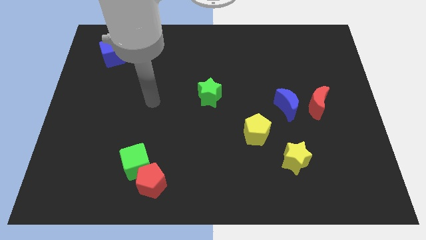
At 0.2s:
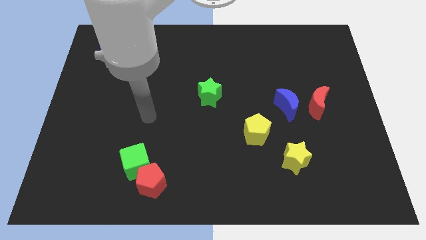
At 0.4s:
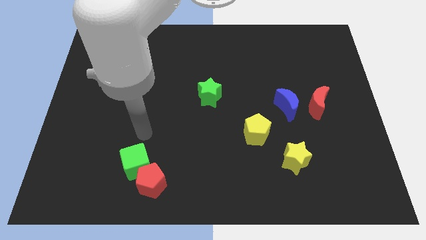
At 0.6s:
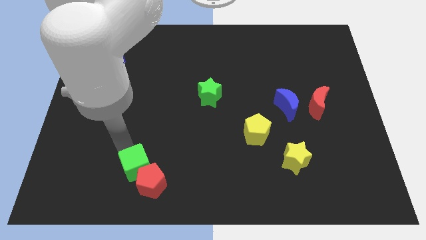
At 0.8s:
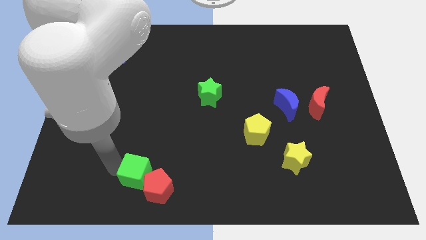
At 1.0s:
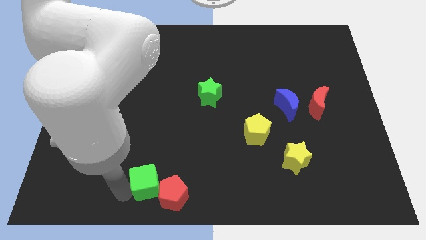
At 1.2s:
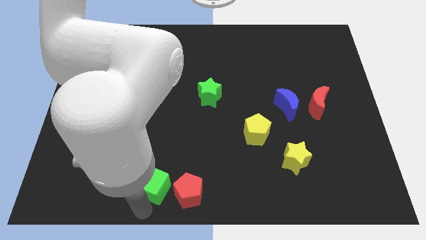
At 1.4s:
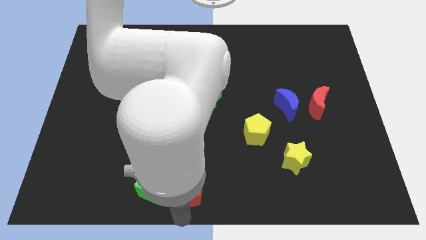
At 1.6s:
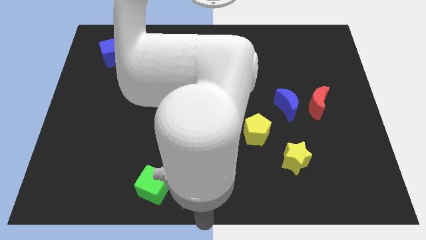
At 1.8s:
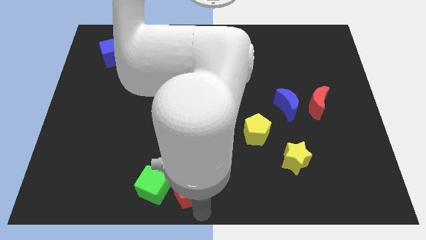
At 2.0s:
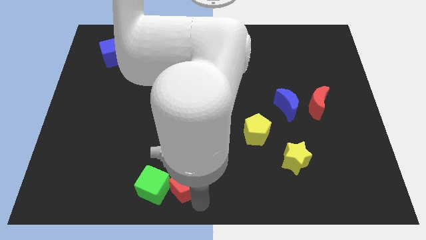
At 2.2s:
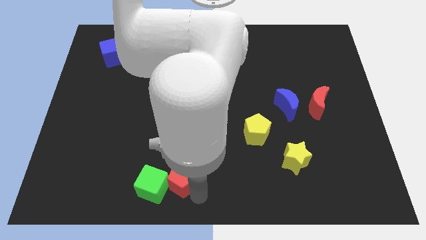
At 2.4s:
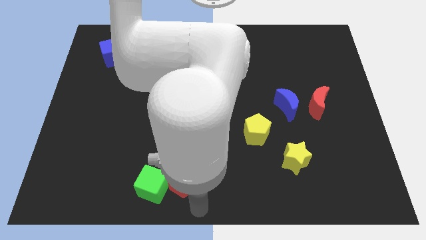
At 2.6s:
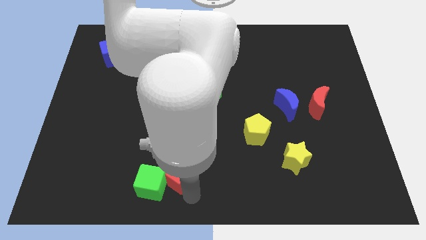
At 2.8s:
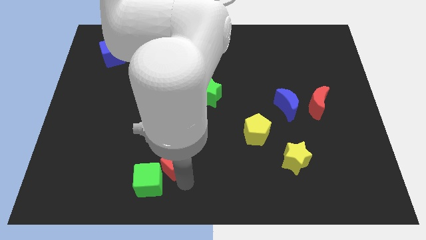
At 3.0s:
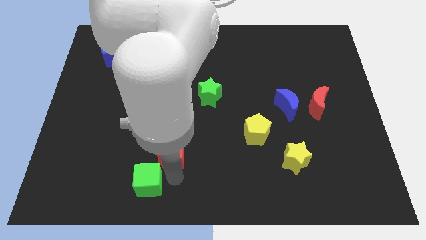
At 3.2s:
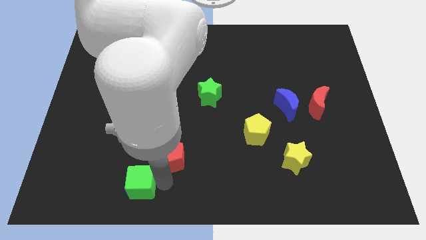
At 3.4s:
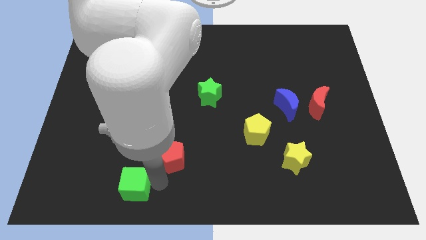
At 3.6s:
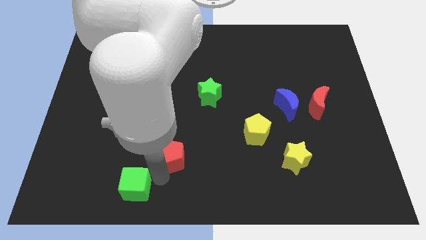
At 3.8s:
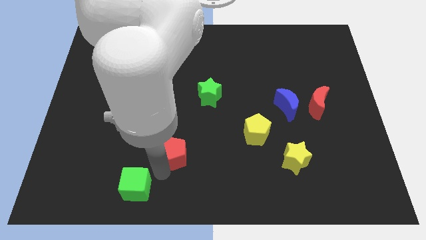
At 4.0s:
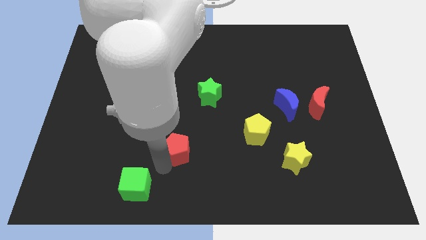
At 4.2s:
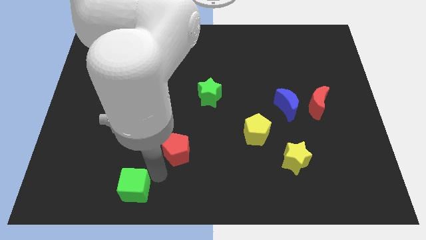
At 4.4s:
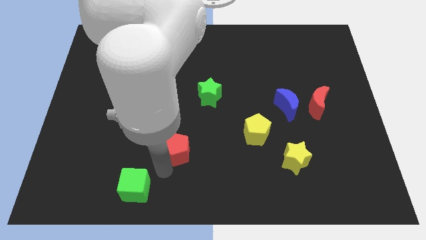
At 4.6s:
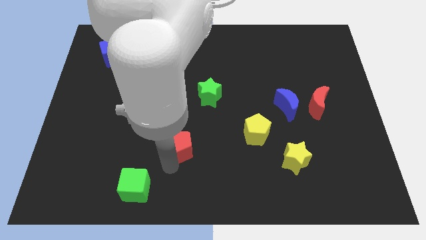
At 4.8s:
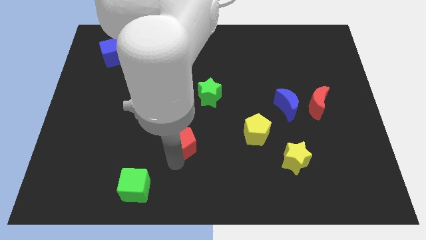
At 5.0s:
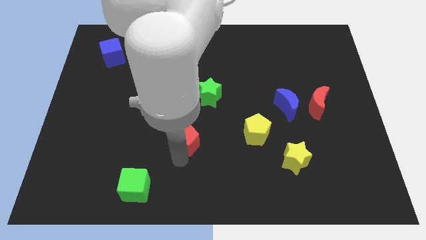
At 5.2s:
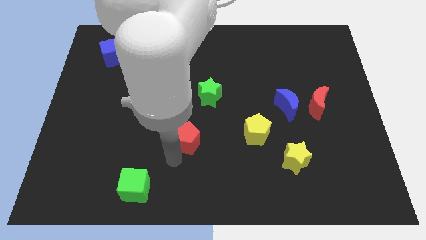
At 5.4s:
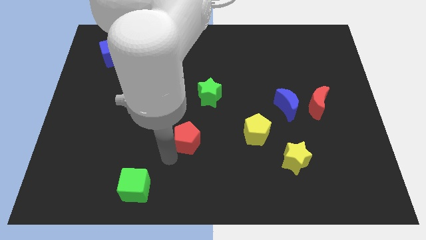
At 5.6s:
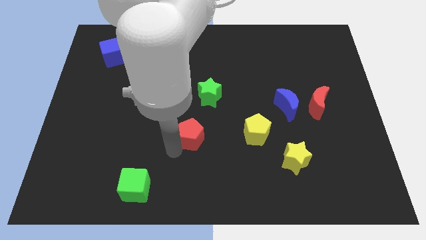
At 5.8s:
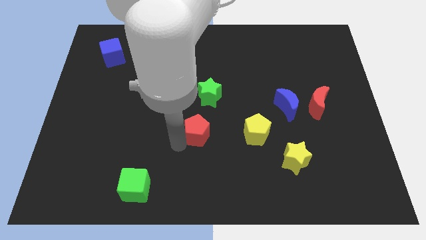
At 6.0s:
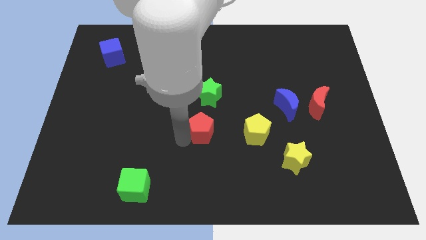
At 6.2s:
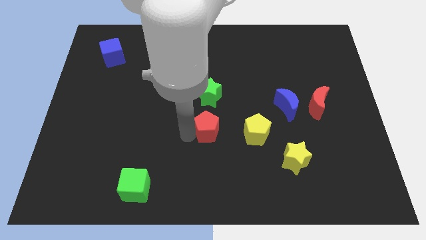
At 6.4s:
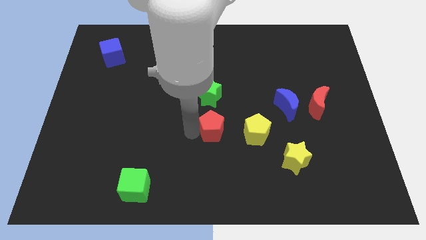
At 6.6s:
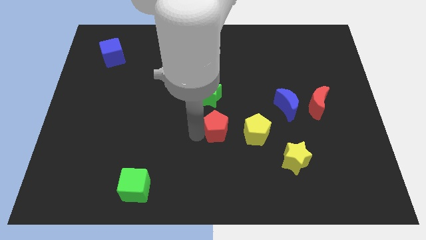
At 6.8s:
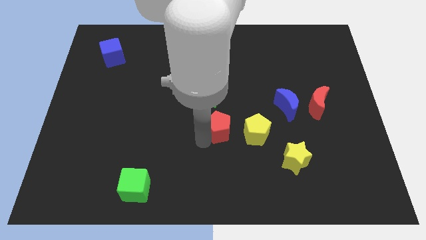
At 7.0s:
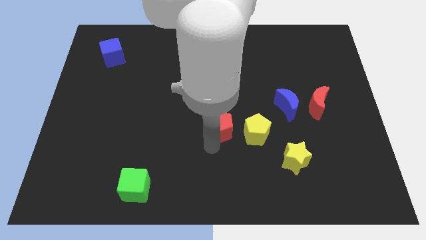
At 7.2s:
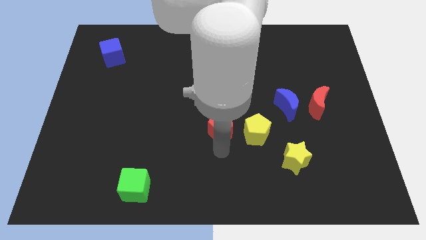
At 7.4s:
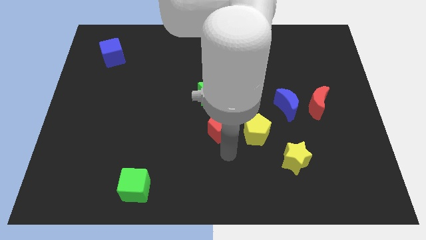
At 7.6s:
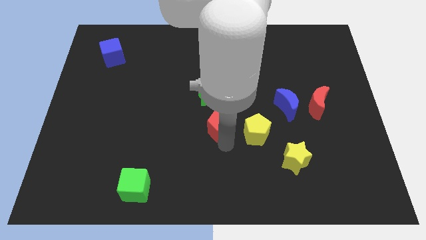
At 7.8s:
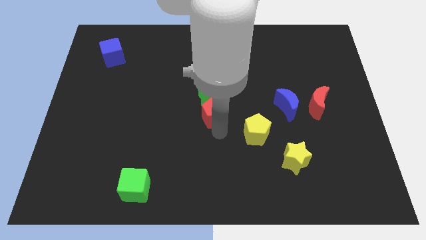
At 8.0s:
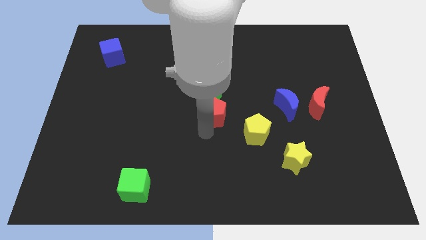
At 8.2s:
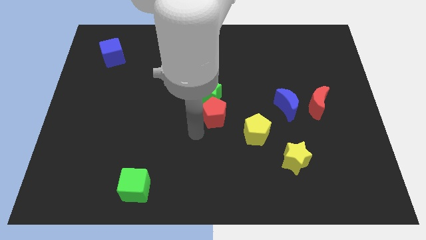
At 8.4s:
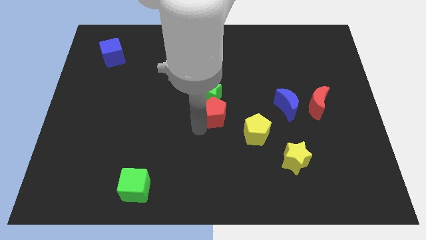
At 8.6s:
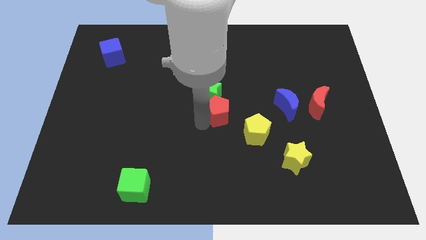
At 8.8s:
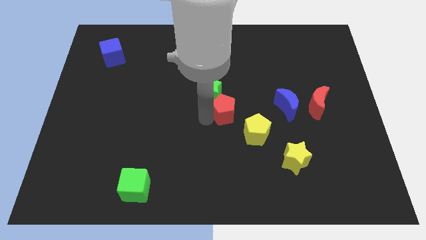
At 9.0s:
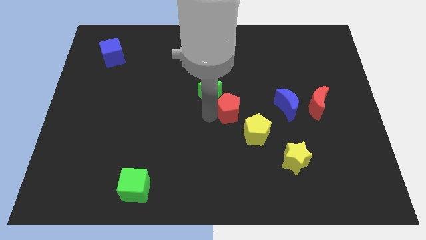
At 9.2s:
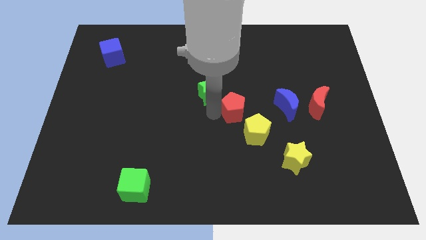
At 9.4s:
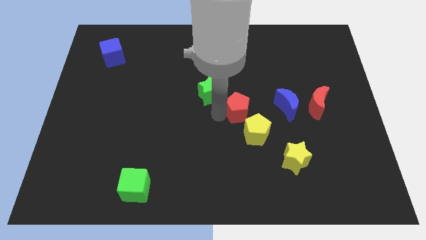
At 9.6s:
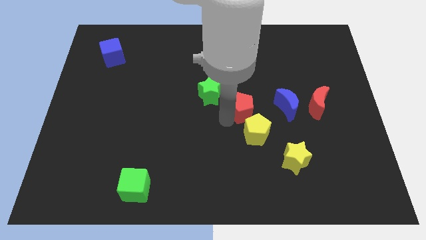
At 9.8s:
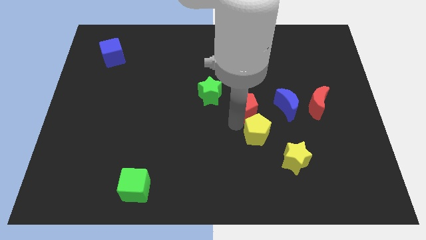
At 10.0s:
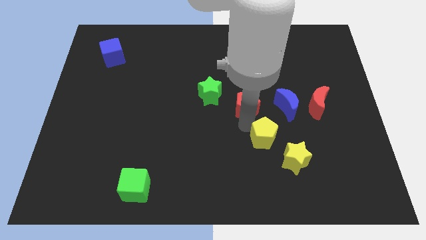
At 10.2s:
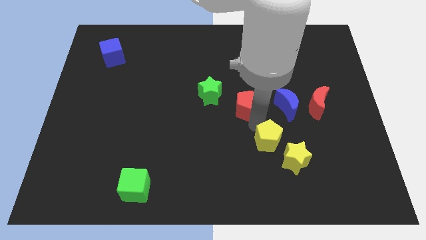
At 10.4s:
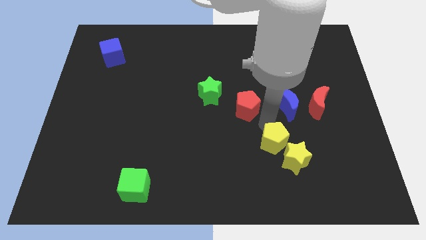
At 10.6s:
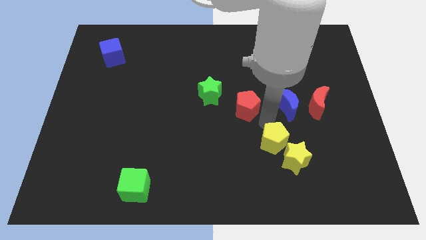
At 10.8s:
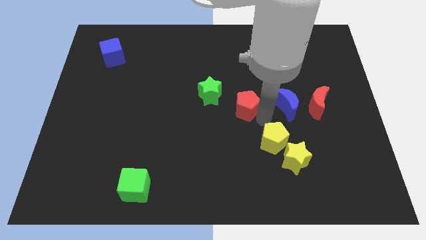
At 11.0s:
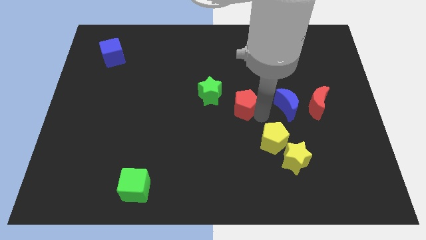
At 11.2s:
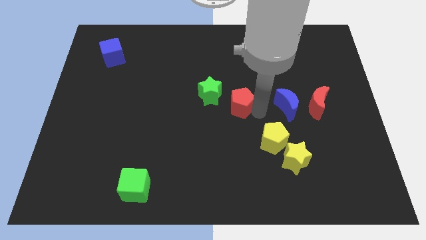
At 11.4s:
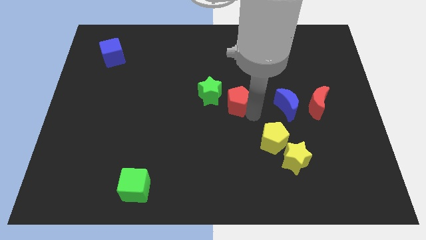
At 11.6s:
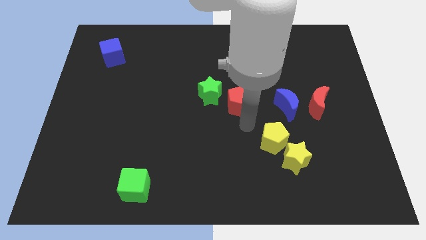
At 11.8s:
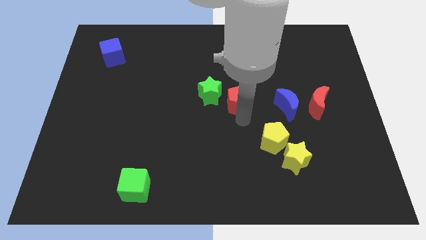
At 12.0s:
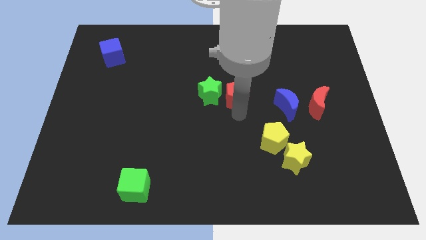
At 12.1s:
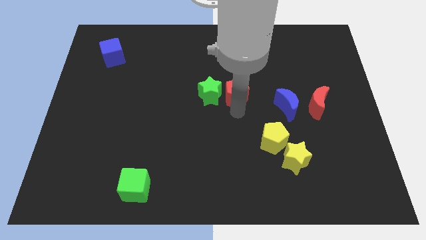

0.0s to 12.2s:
put the red pentagon to the top right side of the green star
